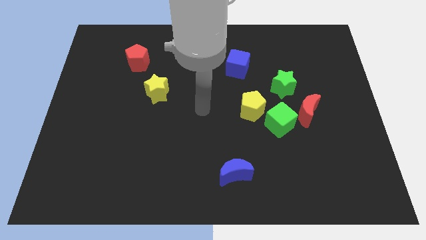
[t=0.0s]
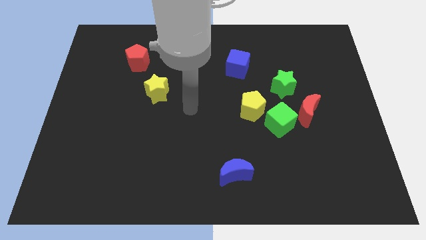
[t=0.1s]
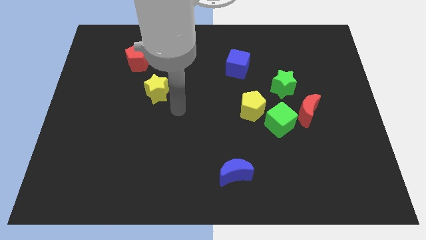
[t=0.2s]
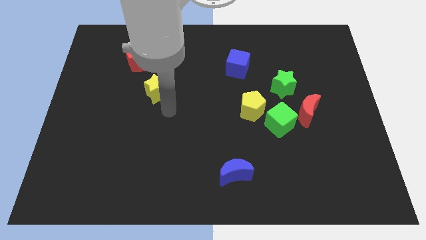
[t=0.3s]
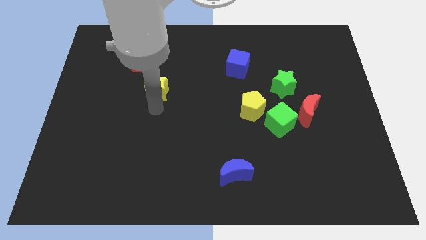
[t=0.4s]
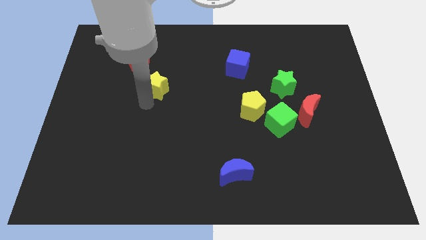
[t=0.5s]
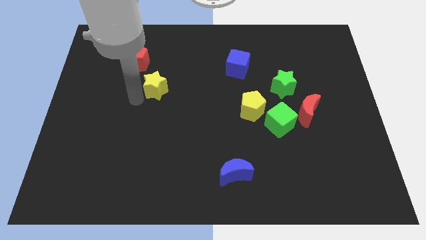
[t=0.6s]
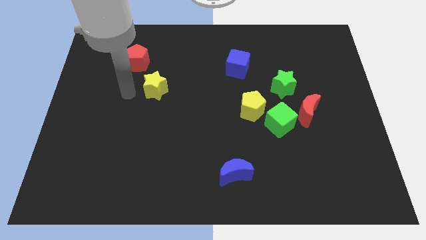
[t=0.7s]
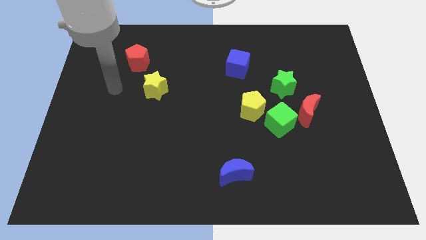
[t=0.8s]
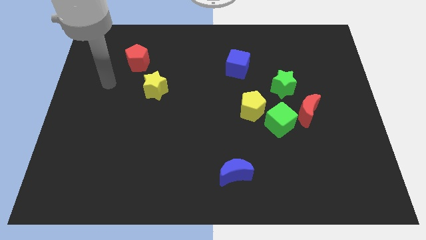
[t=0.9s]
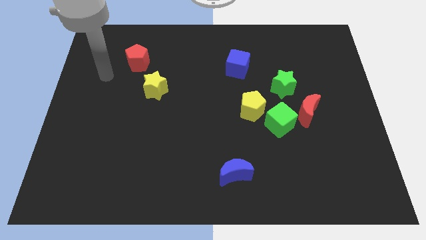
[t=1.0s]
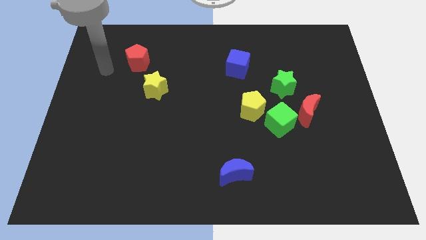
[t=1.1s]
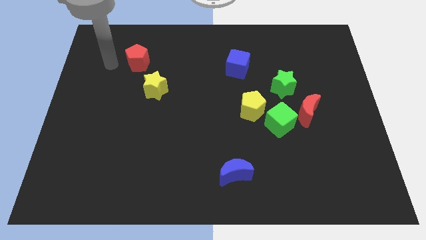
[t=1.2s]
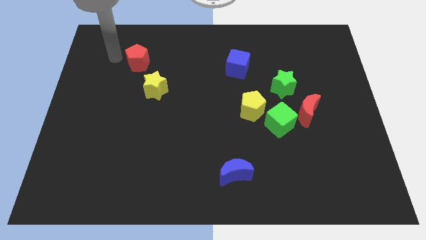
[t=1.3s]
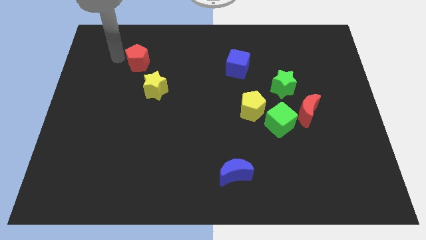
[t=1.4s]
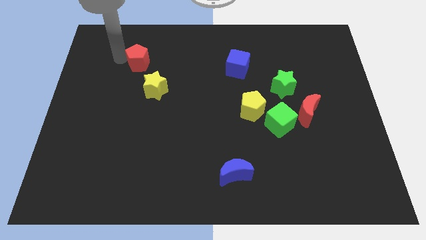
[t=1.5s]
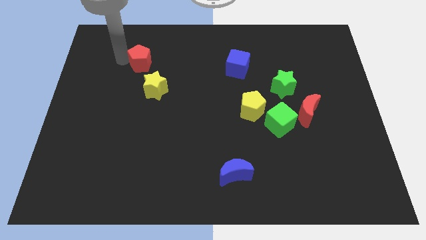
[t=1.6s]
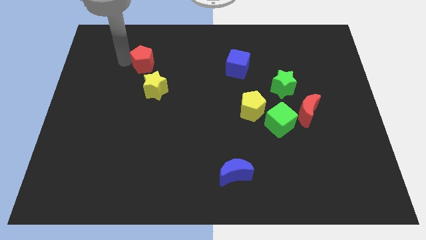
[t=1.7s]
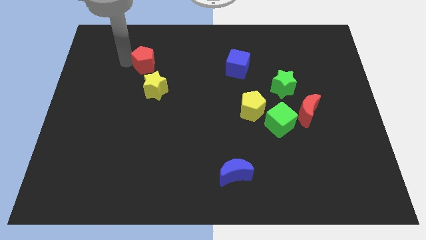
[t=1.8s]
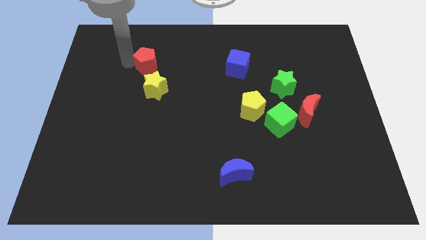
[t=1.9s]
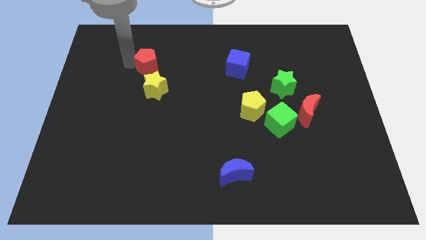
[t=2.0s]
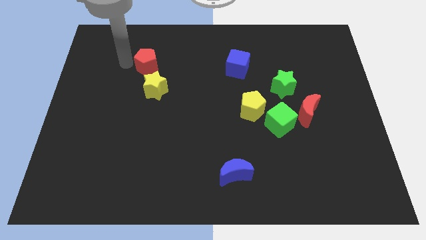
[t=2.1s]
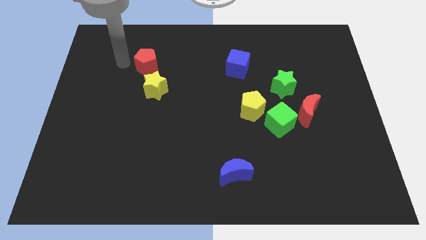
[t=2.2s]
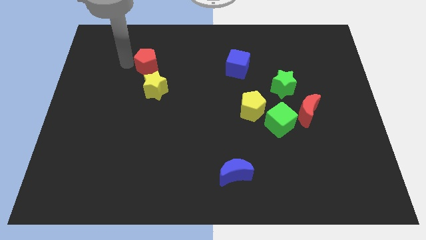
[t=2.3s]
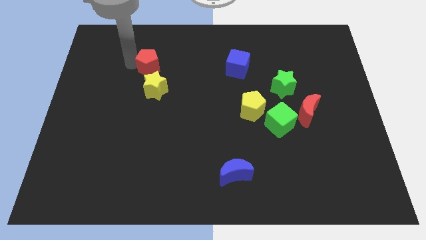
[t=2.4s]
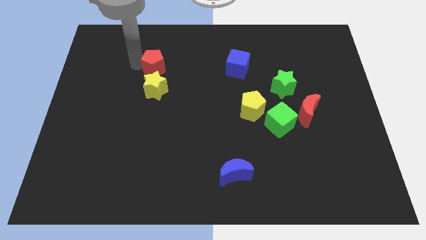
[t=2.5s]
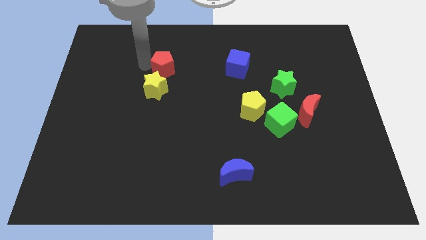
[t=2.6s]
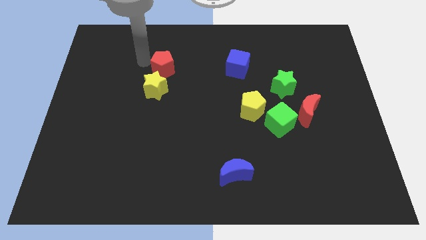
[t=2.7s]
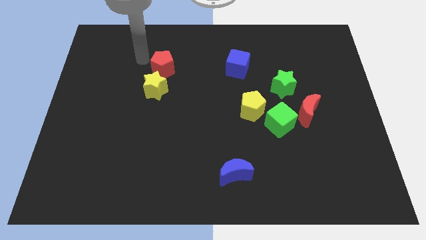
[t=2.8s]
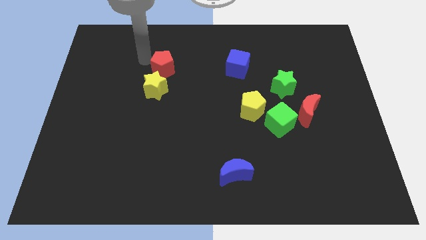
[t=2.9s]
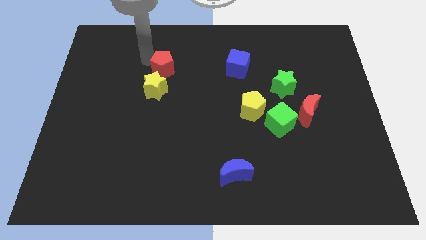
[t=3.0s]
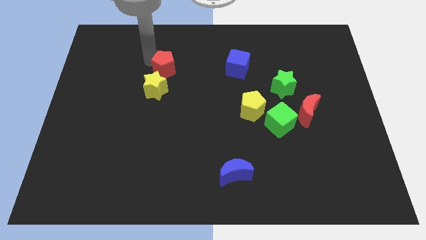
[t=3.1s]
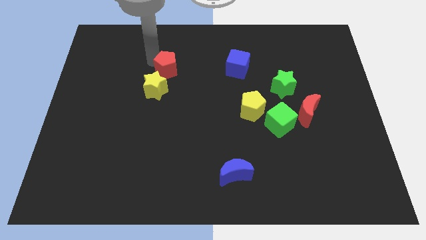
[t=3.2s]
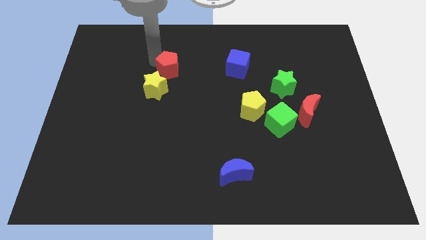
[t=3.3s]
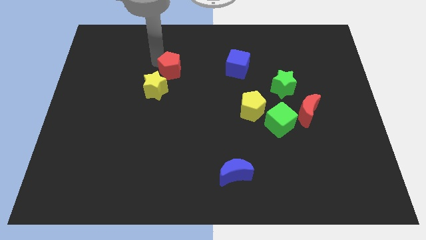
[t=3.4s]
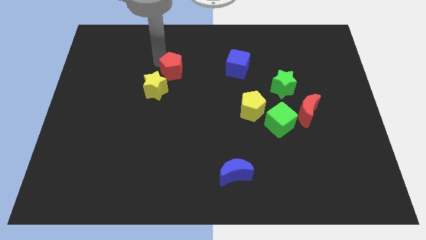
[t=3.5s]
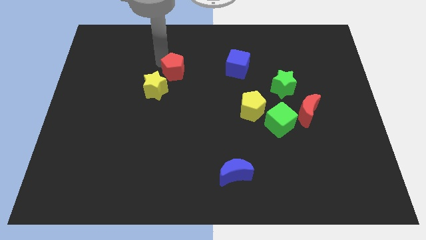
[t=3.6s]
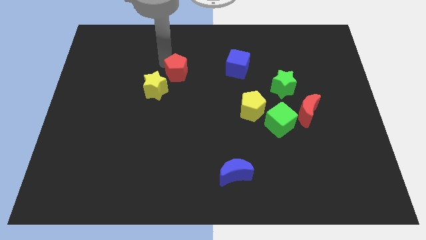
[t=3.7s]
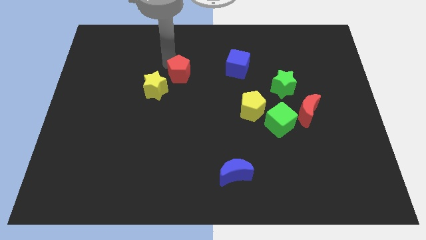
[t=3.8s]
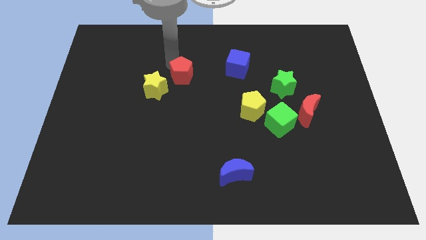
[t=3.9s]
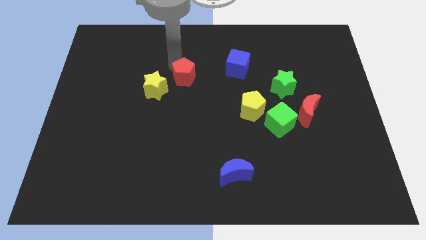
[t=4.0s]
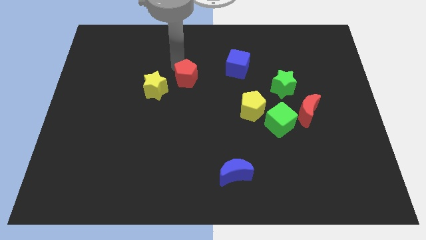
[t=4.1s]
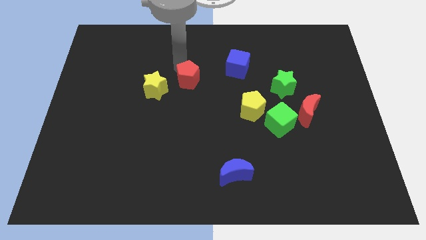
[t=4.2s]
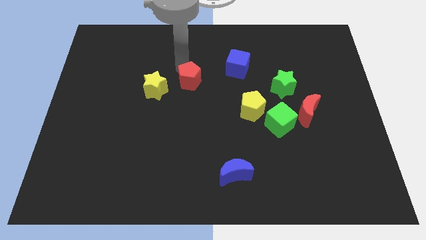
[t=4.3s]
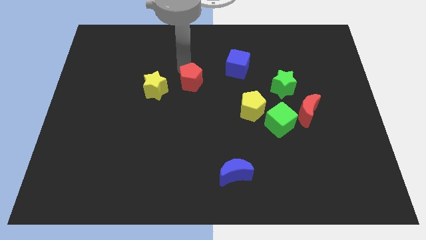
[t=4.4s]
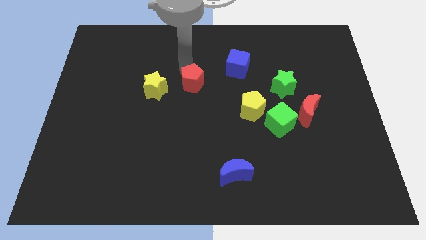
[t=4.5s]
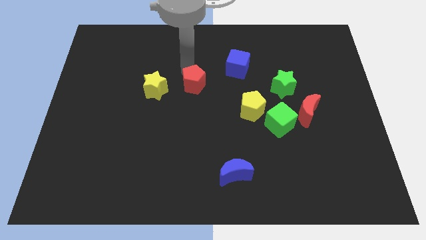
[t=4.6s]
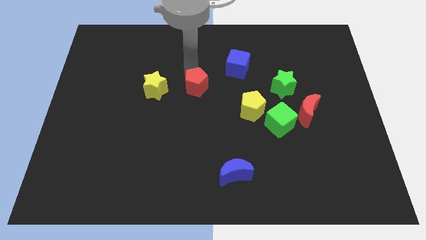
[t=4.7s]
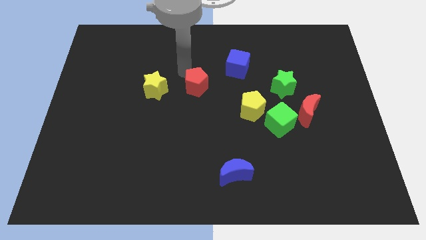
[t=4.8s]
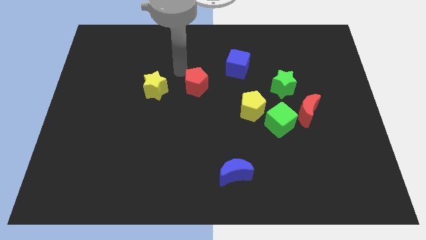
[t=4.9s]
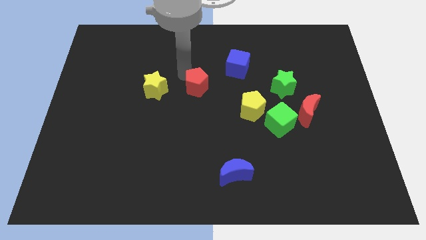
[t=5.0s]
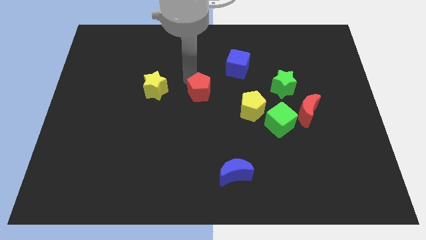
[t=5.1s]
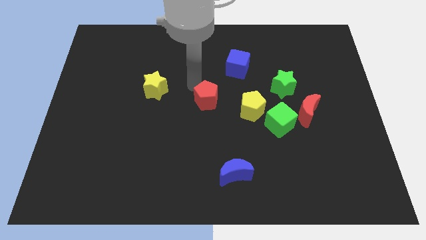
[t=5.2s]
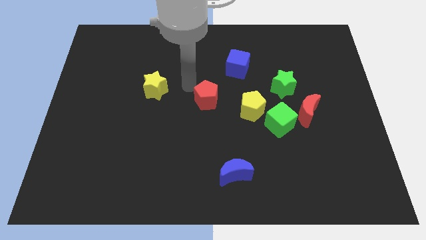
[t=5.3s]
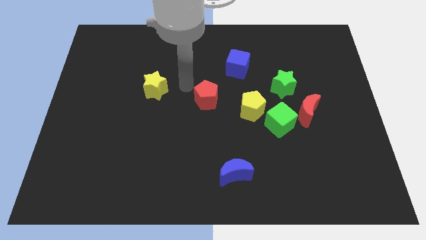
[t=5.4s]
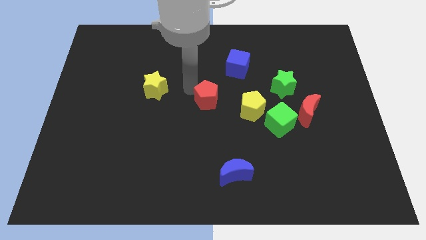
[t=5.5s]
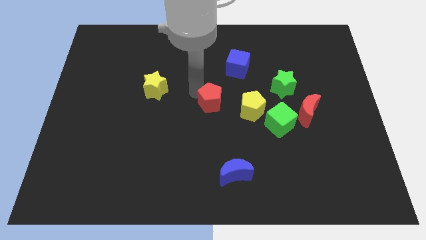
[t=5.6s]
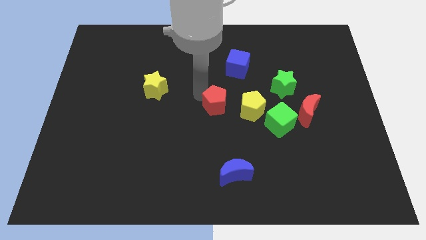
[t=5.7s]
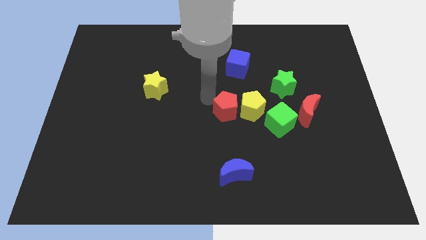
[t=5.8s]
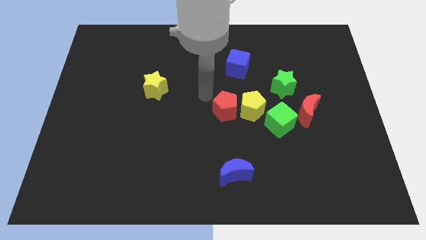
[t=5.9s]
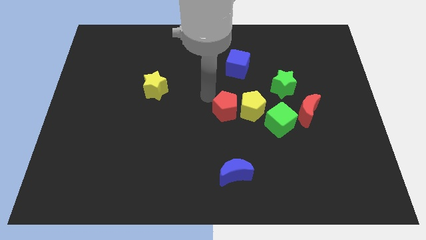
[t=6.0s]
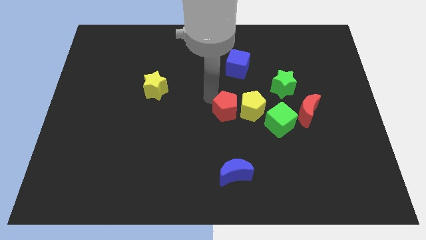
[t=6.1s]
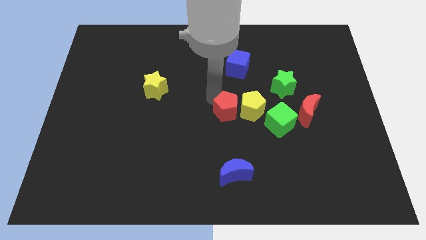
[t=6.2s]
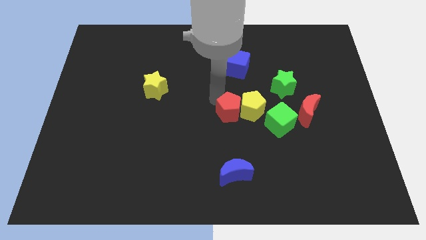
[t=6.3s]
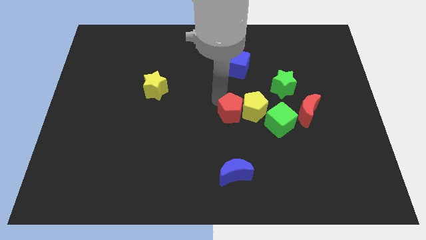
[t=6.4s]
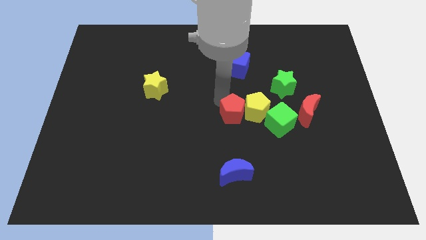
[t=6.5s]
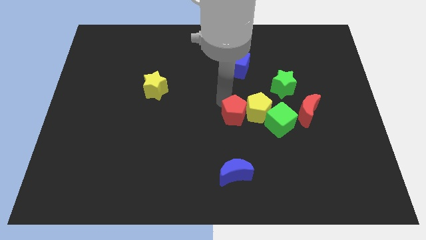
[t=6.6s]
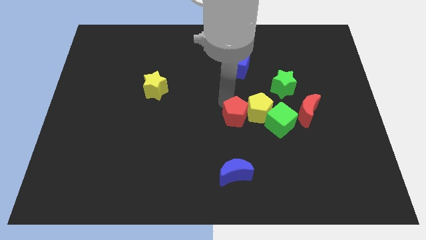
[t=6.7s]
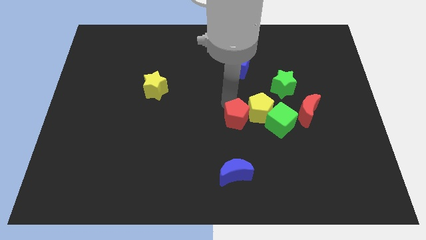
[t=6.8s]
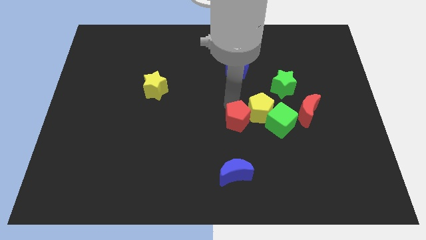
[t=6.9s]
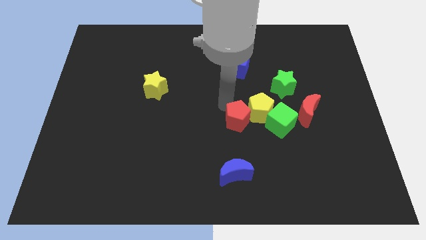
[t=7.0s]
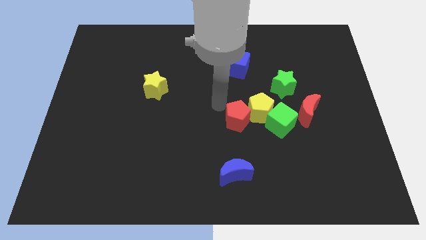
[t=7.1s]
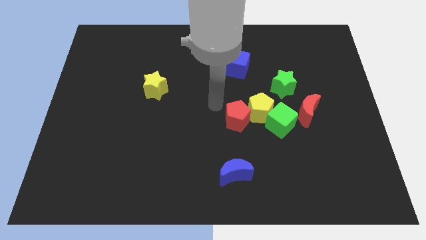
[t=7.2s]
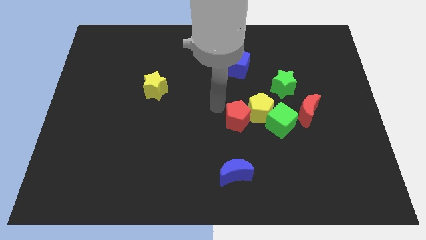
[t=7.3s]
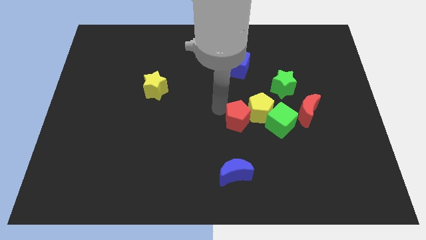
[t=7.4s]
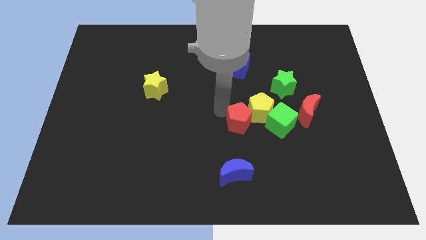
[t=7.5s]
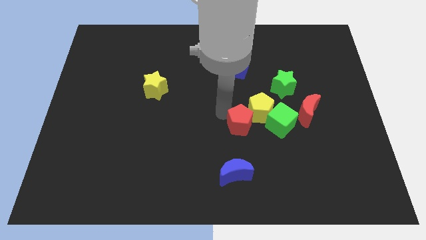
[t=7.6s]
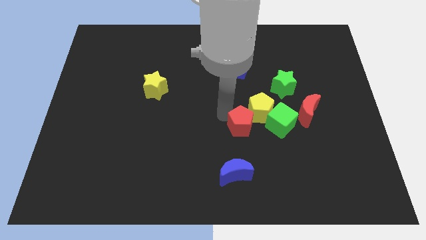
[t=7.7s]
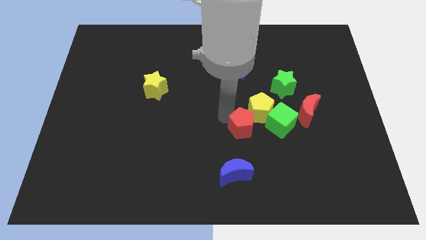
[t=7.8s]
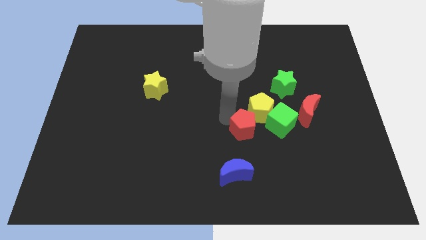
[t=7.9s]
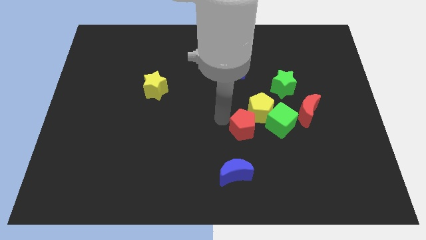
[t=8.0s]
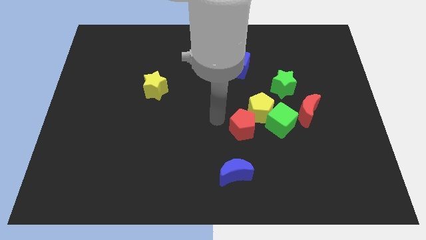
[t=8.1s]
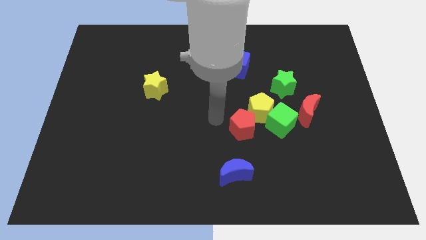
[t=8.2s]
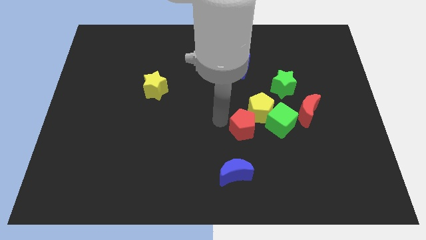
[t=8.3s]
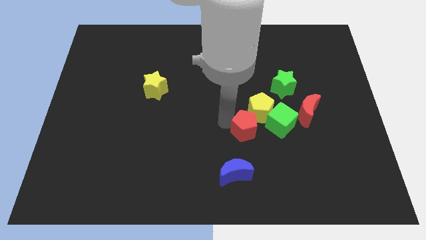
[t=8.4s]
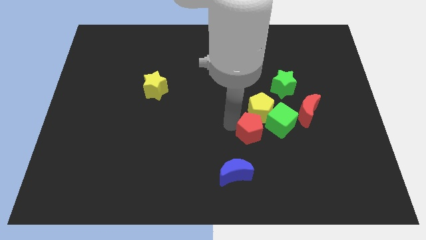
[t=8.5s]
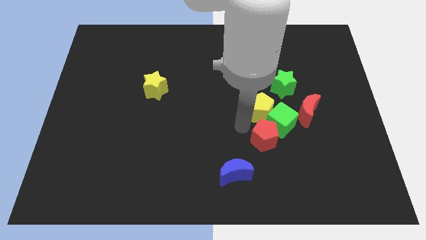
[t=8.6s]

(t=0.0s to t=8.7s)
put the red pentagon below the green cube
